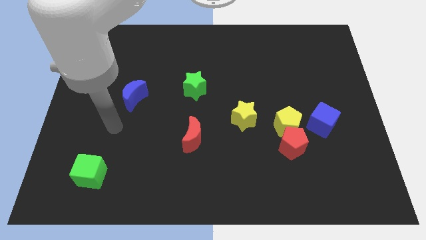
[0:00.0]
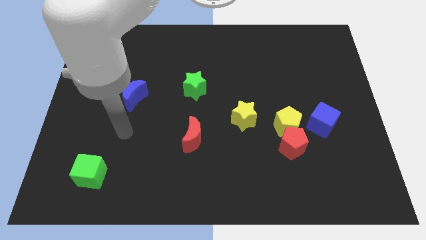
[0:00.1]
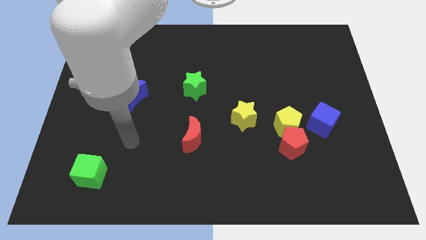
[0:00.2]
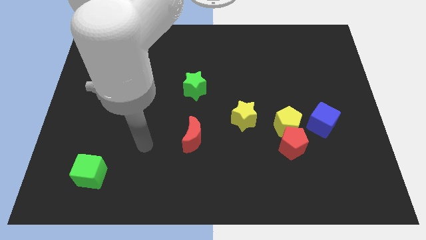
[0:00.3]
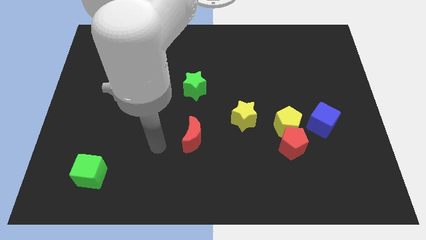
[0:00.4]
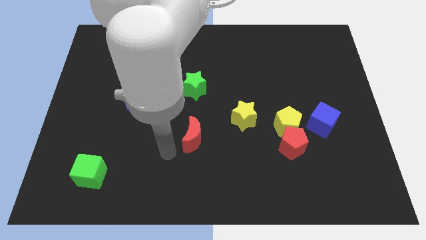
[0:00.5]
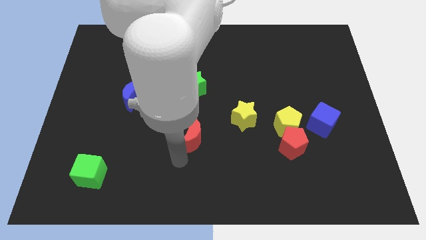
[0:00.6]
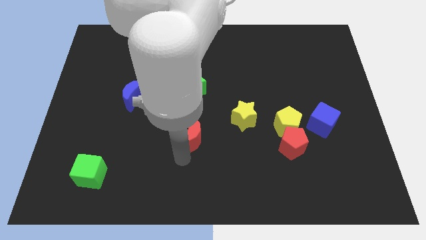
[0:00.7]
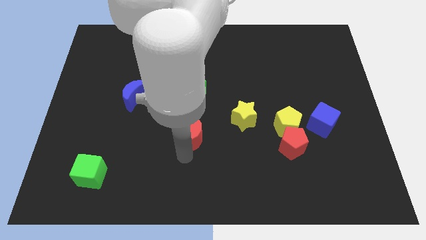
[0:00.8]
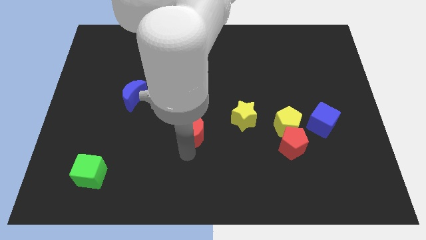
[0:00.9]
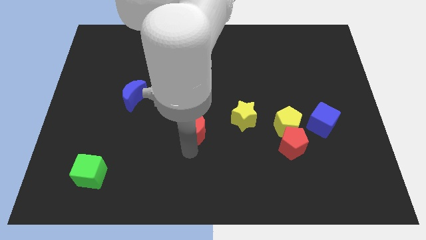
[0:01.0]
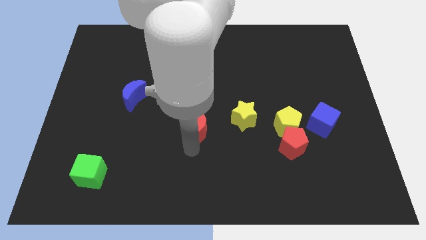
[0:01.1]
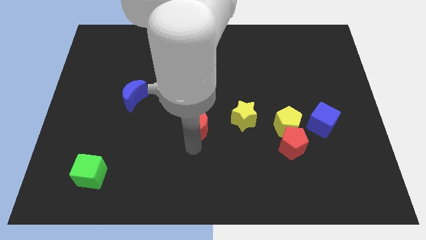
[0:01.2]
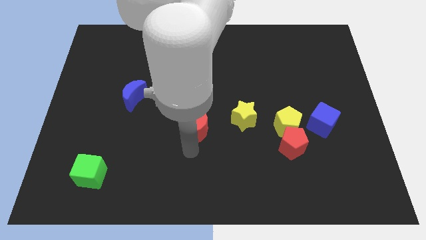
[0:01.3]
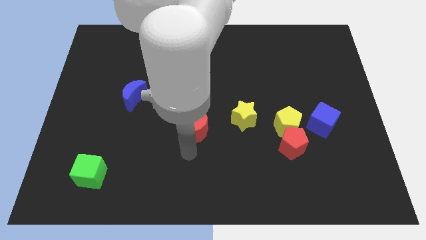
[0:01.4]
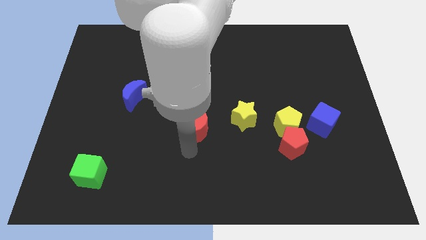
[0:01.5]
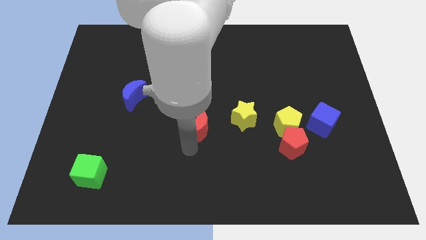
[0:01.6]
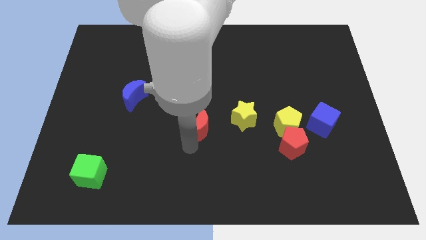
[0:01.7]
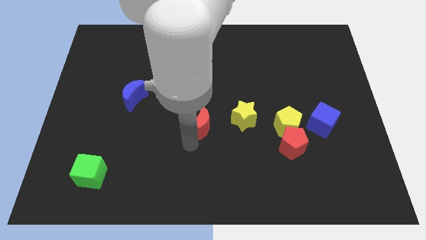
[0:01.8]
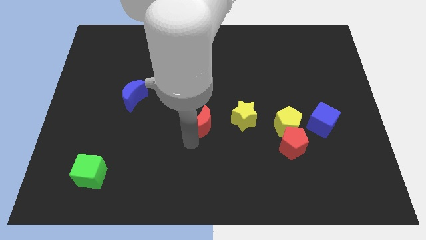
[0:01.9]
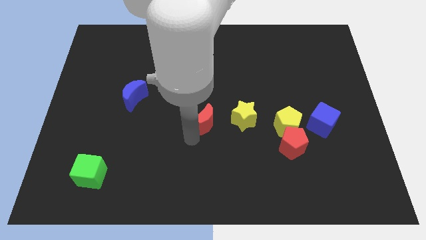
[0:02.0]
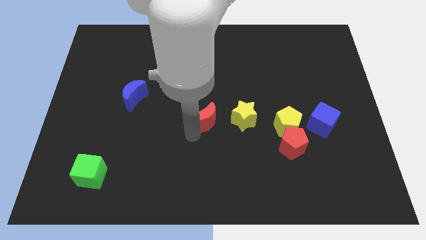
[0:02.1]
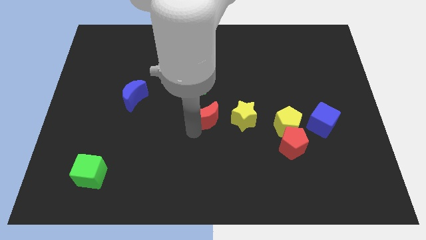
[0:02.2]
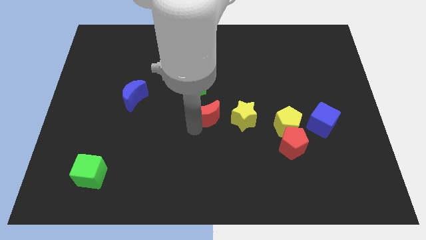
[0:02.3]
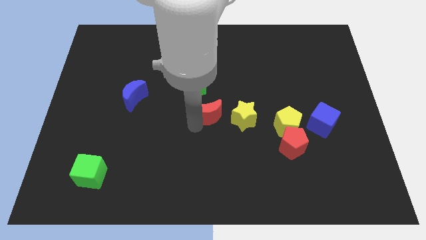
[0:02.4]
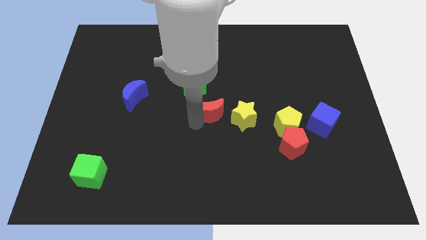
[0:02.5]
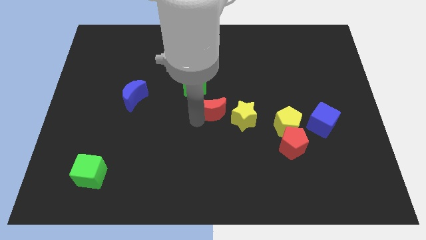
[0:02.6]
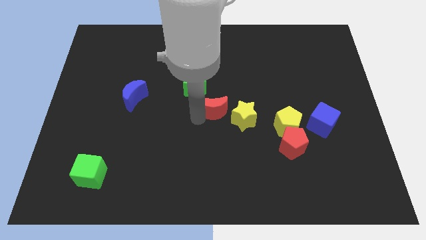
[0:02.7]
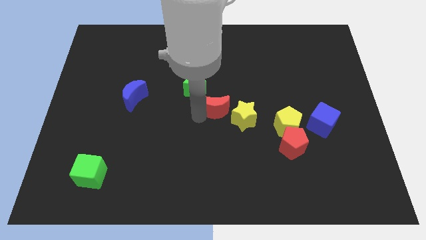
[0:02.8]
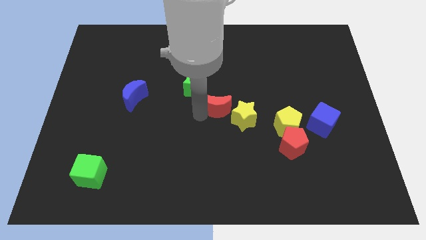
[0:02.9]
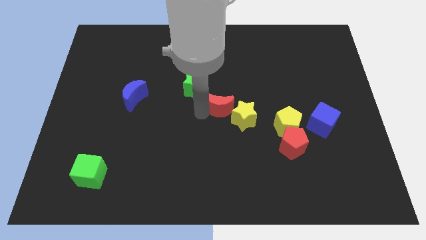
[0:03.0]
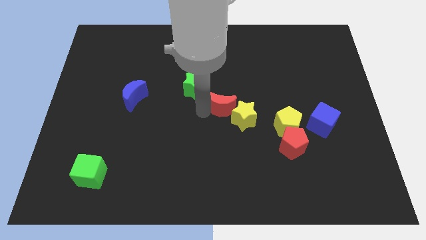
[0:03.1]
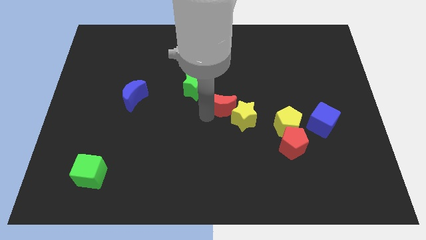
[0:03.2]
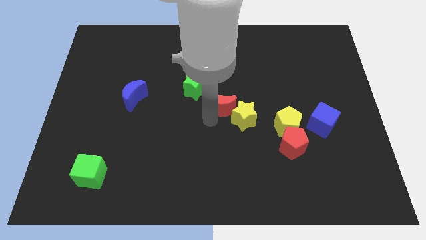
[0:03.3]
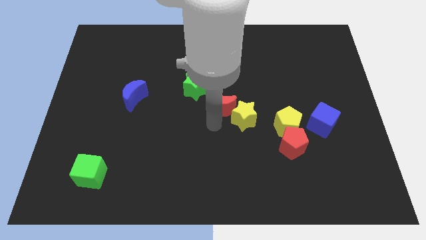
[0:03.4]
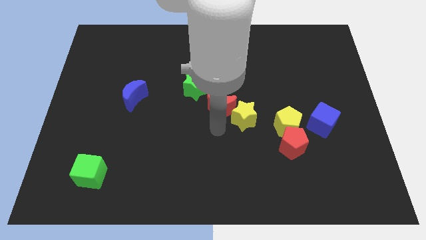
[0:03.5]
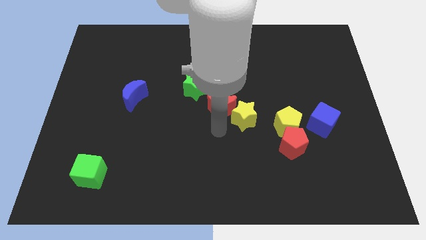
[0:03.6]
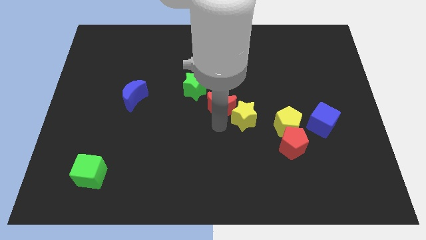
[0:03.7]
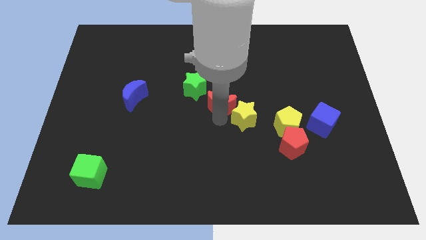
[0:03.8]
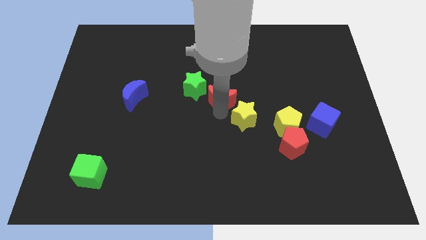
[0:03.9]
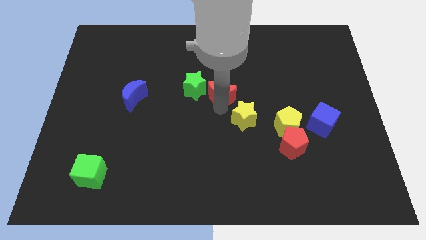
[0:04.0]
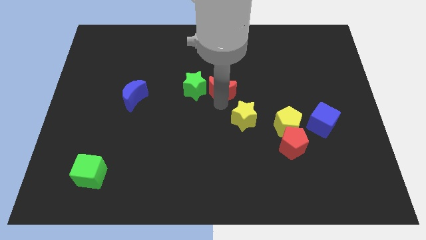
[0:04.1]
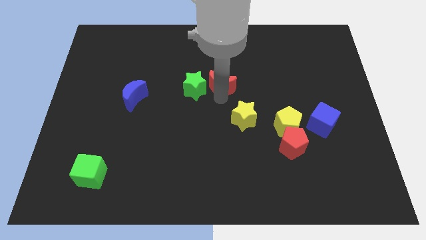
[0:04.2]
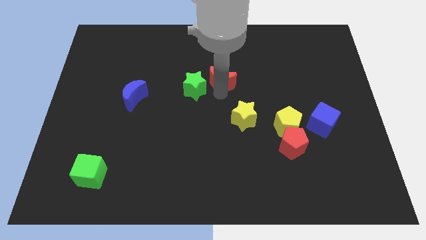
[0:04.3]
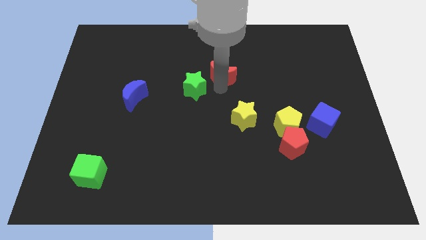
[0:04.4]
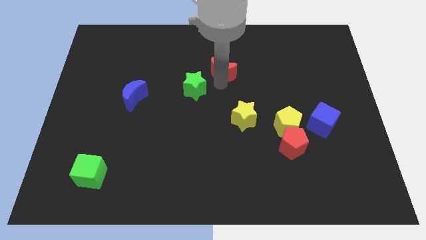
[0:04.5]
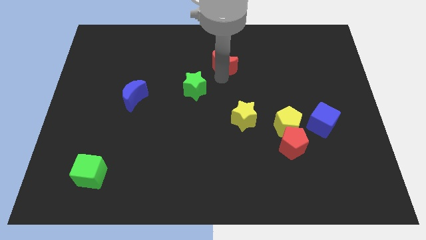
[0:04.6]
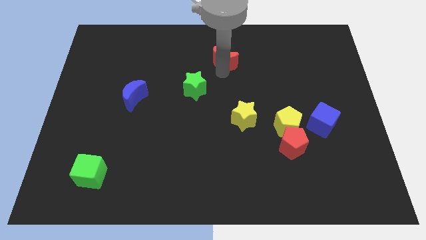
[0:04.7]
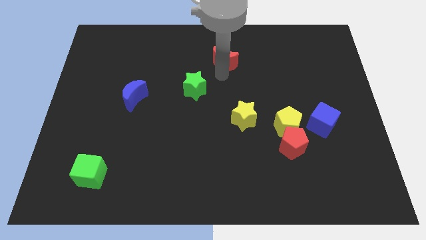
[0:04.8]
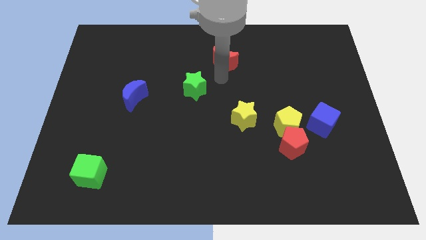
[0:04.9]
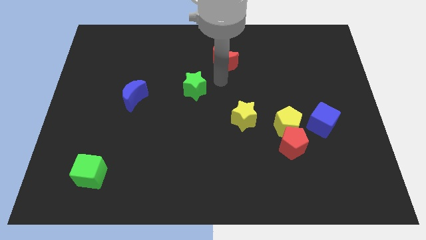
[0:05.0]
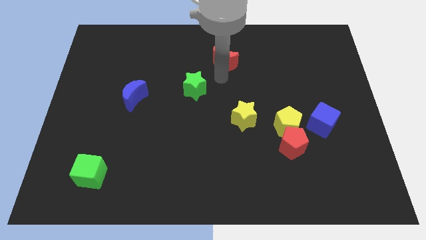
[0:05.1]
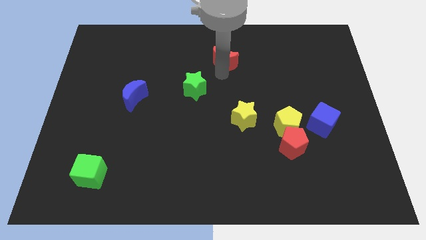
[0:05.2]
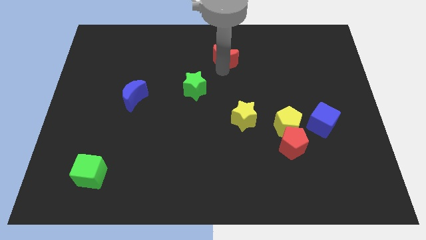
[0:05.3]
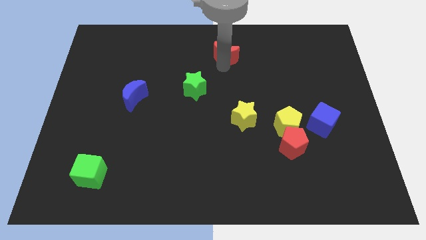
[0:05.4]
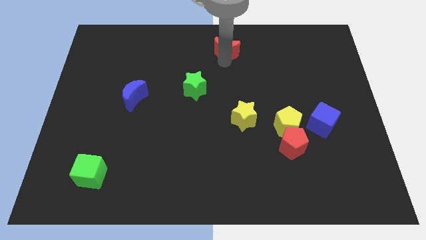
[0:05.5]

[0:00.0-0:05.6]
put the red moon to the top
